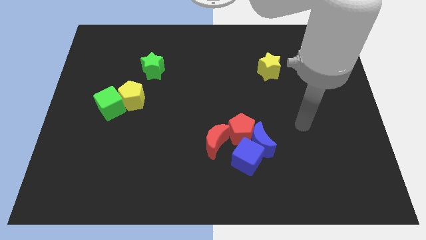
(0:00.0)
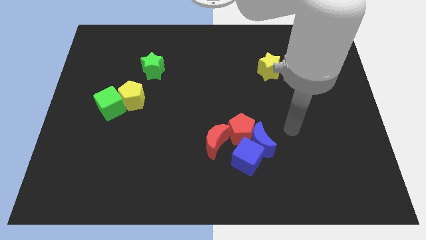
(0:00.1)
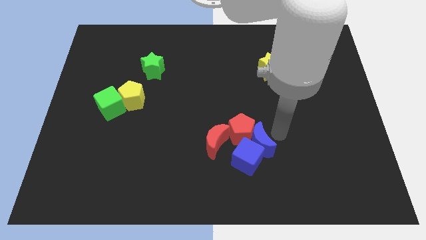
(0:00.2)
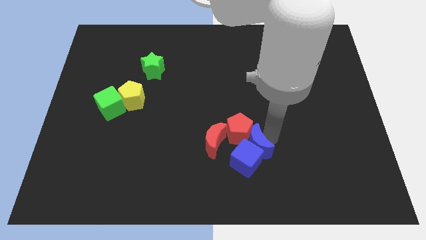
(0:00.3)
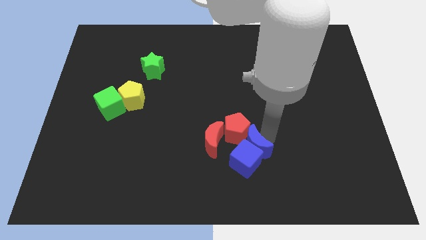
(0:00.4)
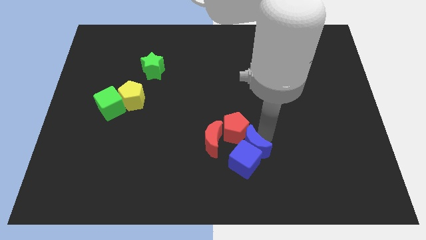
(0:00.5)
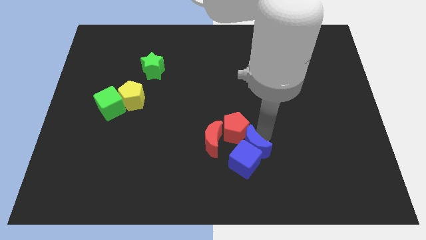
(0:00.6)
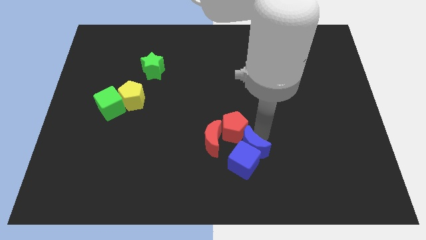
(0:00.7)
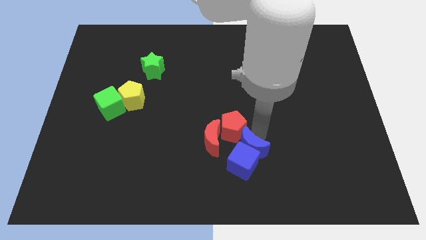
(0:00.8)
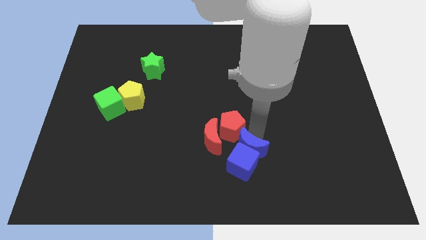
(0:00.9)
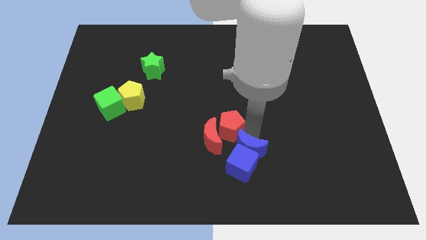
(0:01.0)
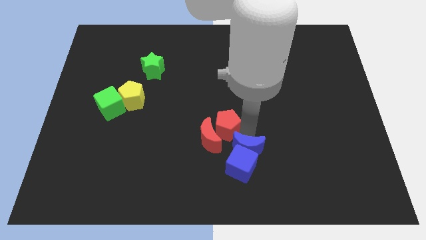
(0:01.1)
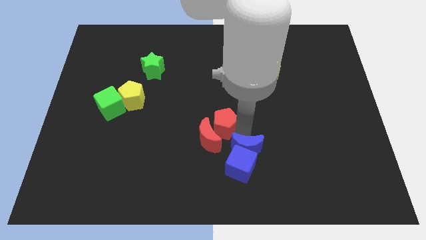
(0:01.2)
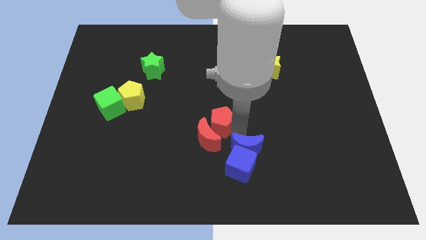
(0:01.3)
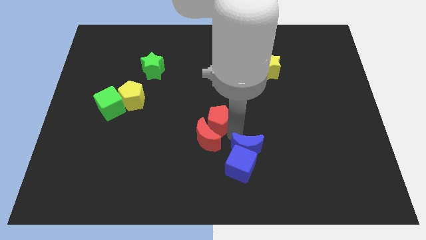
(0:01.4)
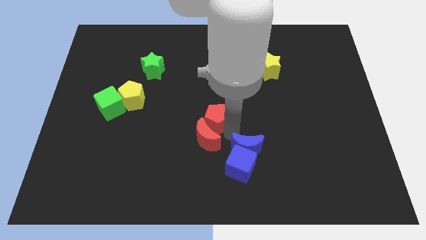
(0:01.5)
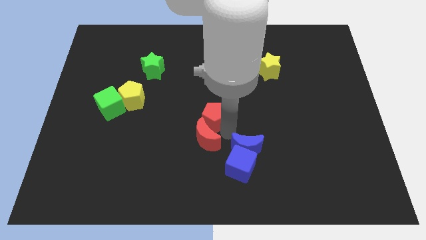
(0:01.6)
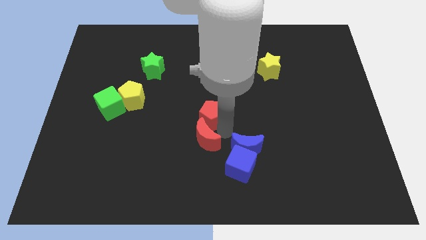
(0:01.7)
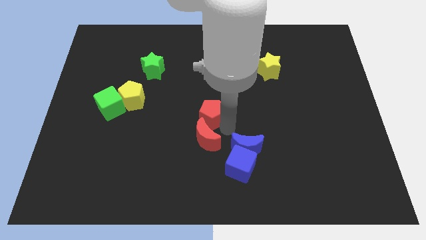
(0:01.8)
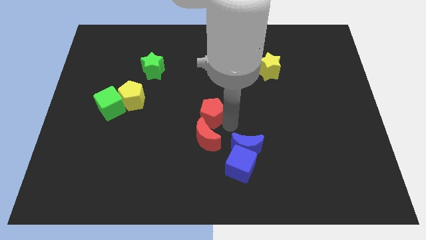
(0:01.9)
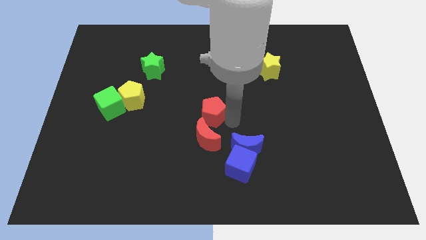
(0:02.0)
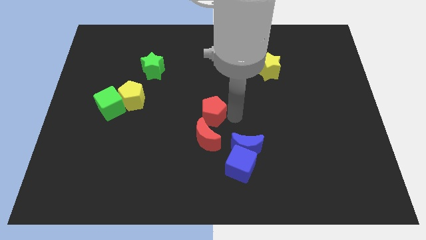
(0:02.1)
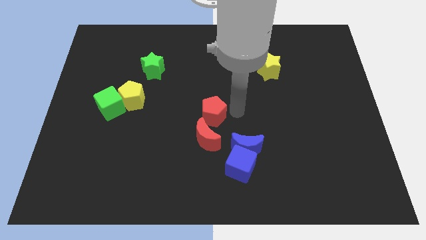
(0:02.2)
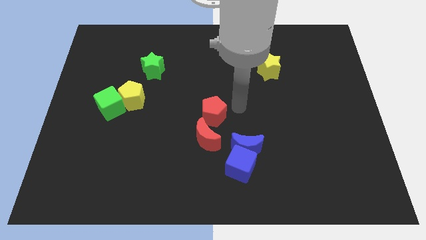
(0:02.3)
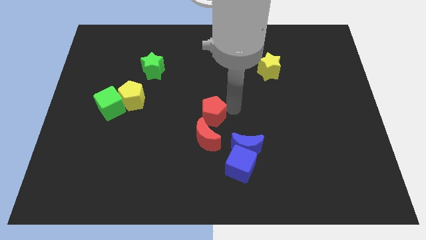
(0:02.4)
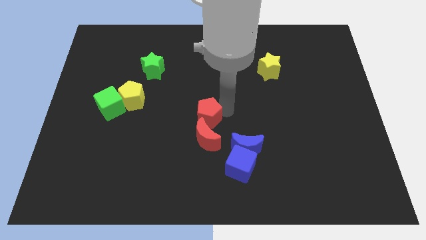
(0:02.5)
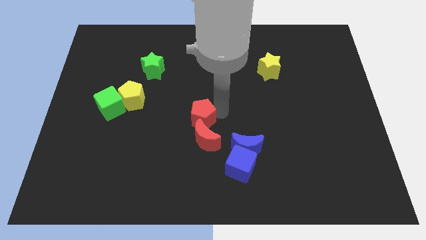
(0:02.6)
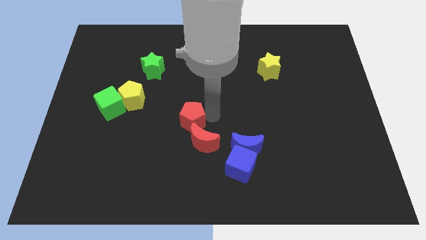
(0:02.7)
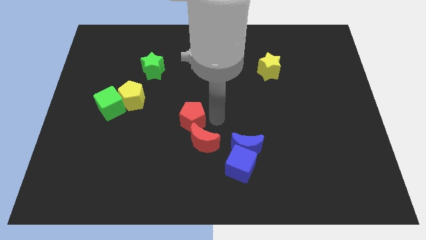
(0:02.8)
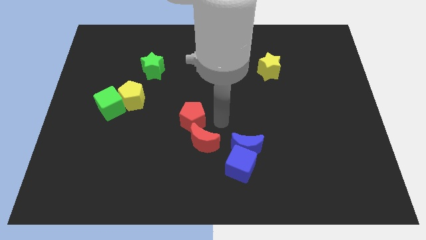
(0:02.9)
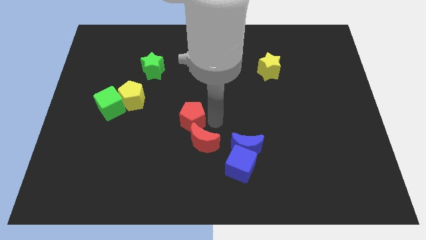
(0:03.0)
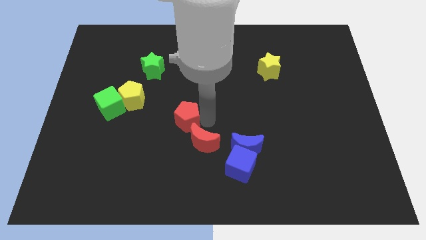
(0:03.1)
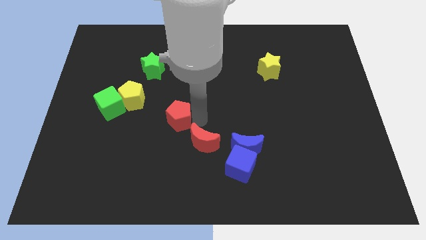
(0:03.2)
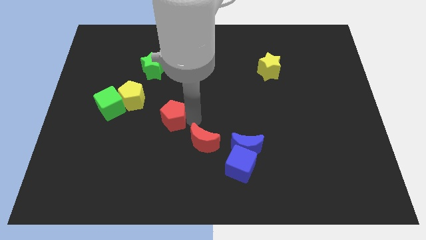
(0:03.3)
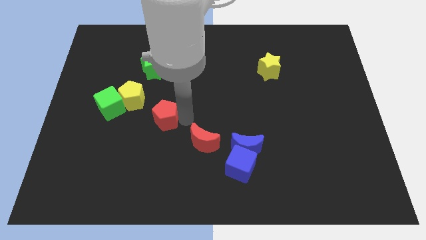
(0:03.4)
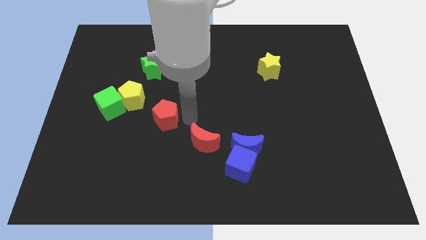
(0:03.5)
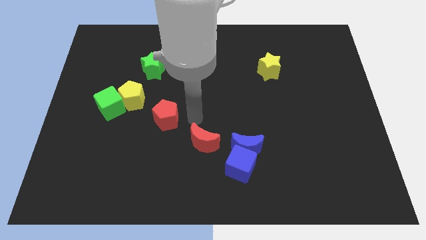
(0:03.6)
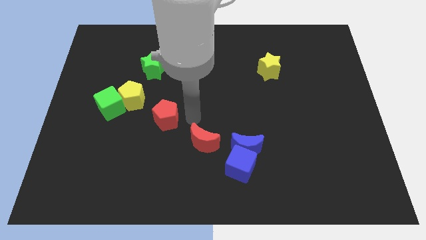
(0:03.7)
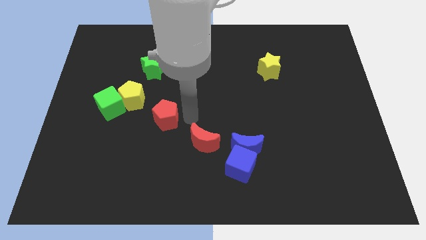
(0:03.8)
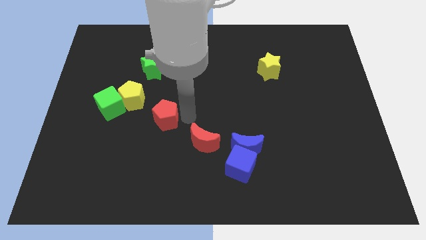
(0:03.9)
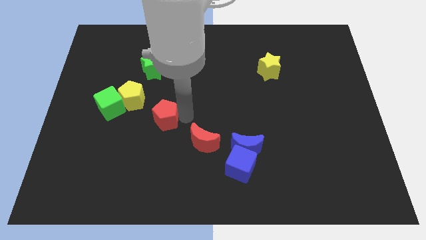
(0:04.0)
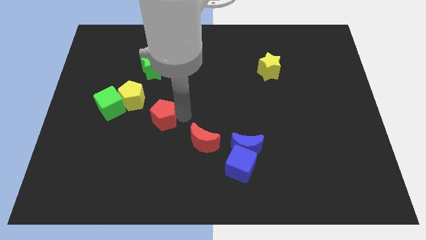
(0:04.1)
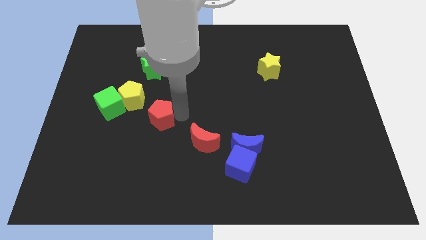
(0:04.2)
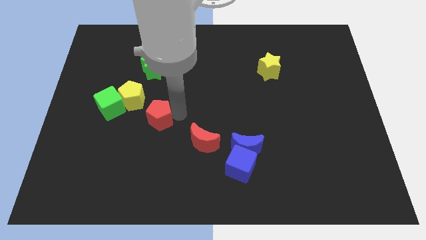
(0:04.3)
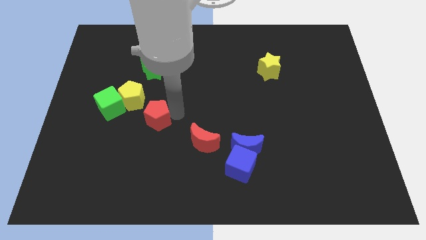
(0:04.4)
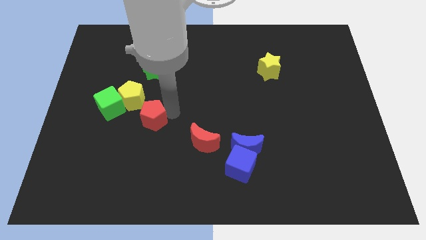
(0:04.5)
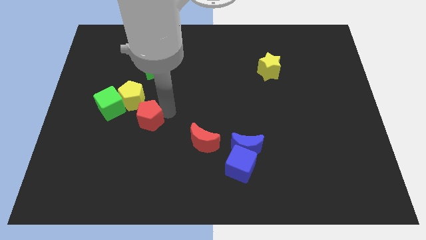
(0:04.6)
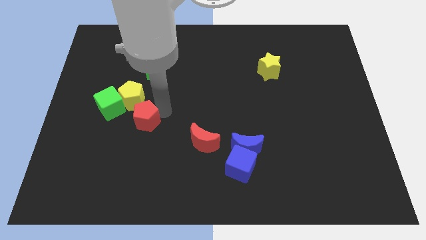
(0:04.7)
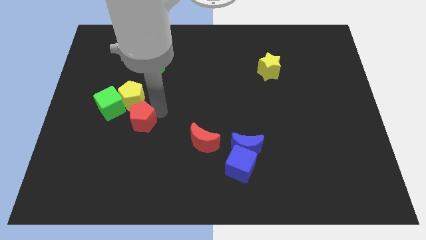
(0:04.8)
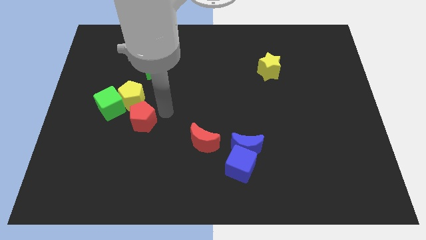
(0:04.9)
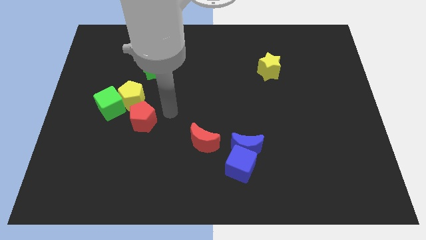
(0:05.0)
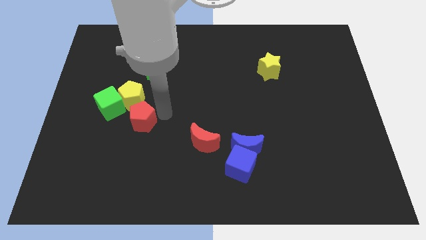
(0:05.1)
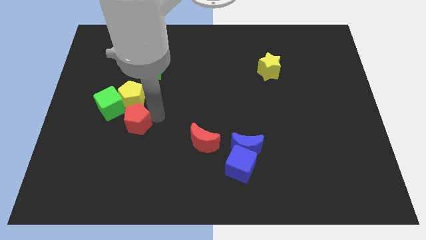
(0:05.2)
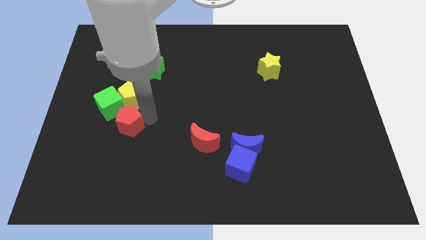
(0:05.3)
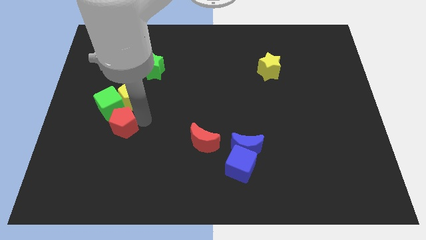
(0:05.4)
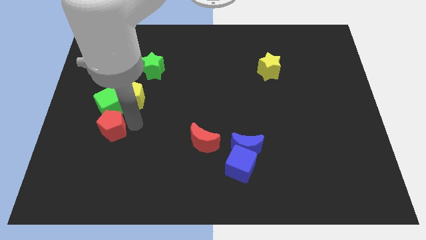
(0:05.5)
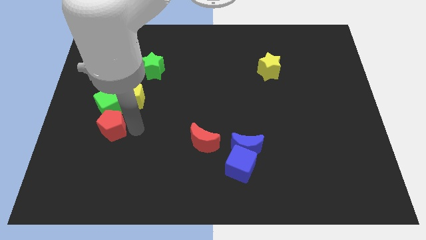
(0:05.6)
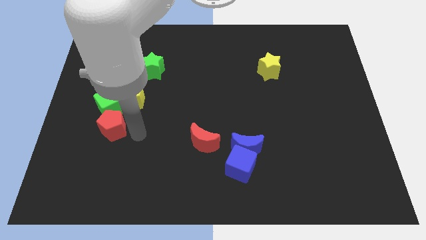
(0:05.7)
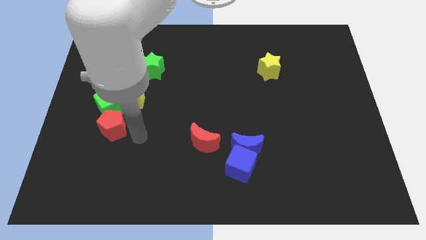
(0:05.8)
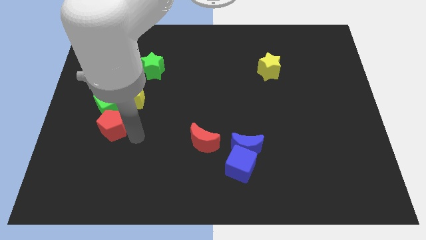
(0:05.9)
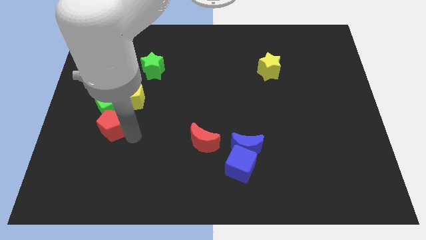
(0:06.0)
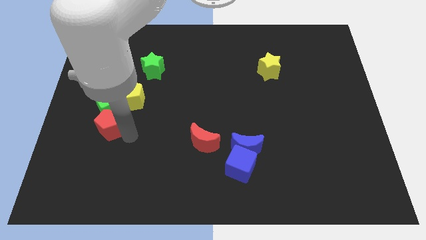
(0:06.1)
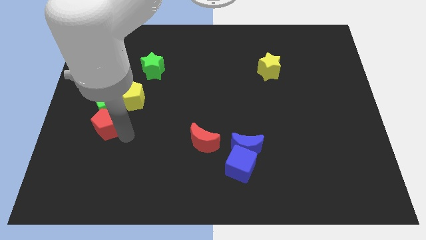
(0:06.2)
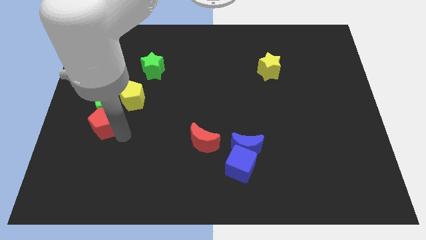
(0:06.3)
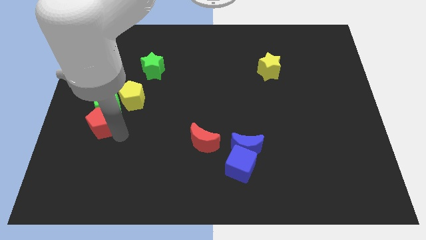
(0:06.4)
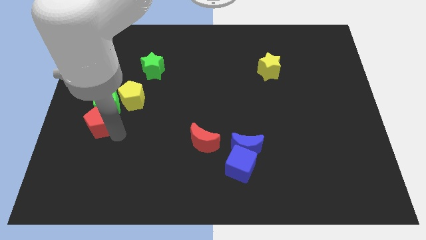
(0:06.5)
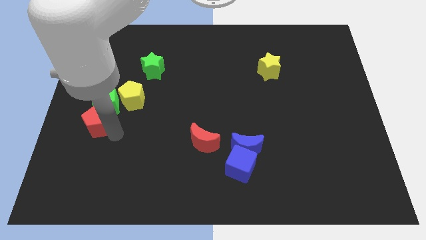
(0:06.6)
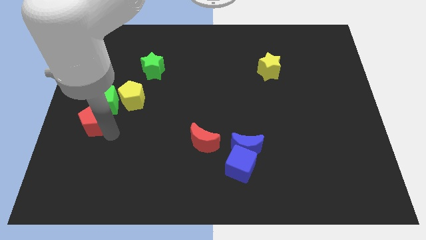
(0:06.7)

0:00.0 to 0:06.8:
move the red pentagon to the left side of the board
